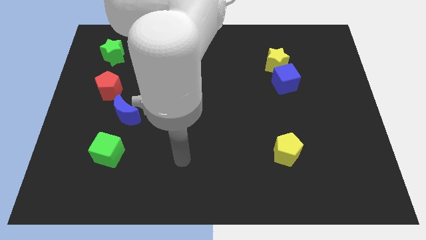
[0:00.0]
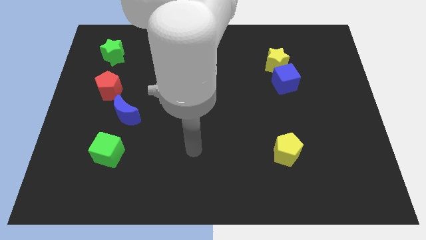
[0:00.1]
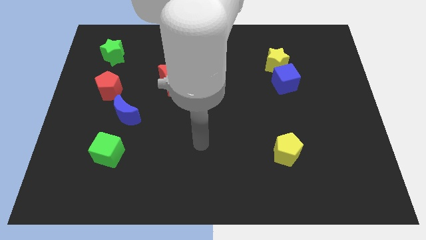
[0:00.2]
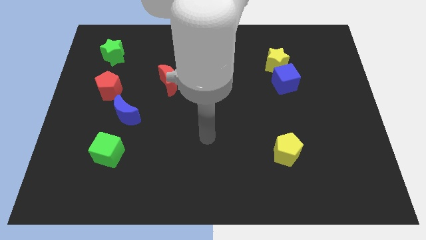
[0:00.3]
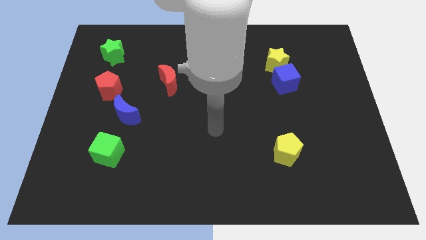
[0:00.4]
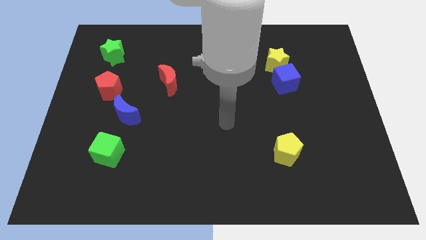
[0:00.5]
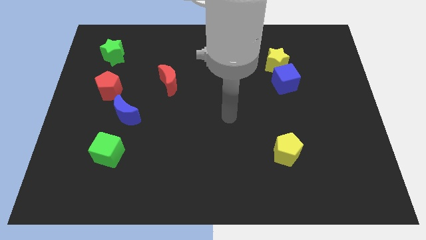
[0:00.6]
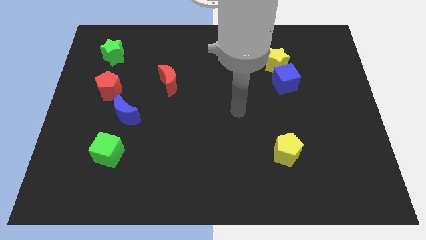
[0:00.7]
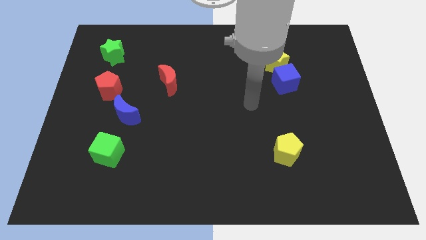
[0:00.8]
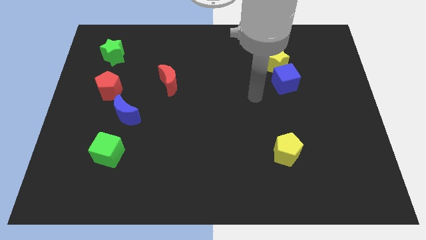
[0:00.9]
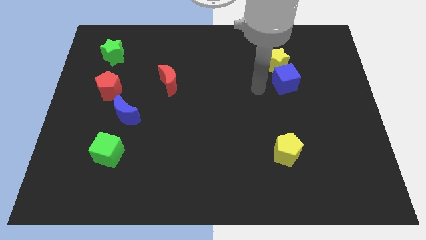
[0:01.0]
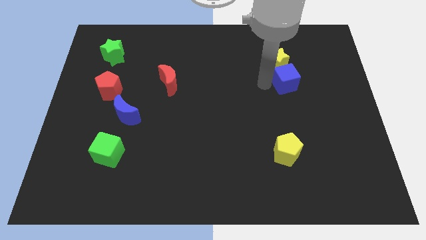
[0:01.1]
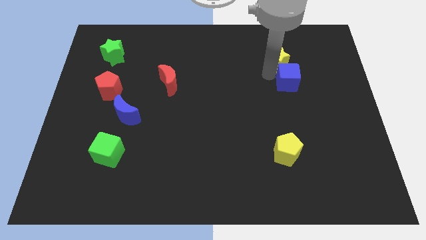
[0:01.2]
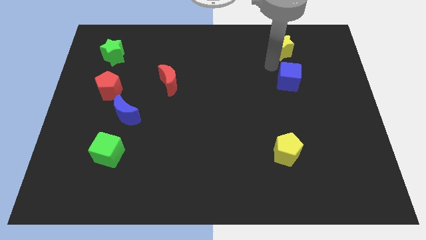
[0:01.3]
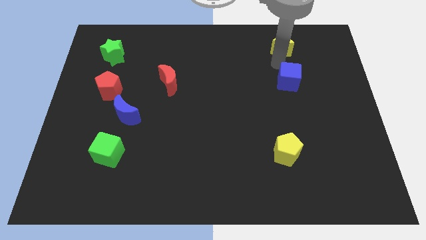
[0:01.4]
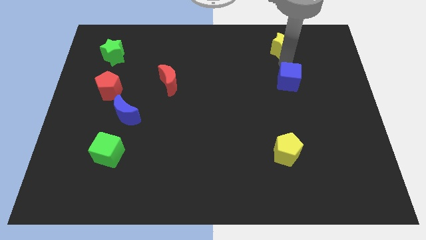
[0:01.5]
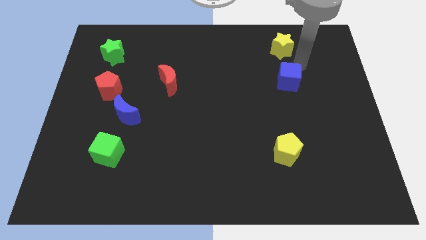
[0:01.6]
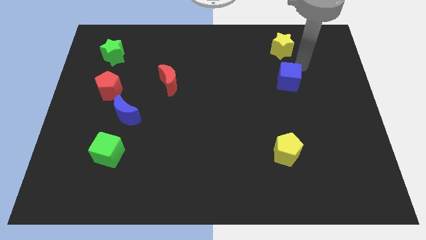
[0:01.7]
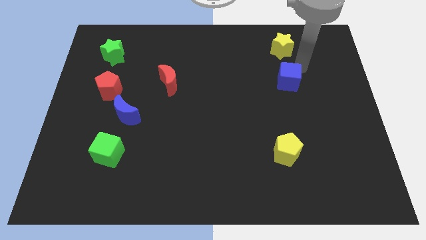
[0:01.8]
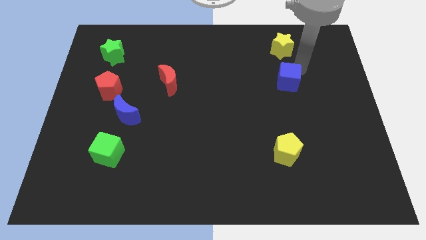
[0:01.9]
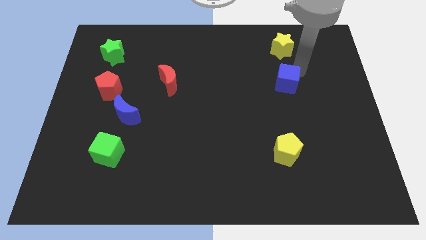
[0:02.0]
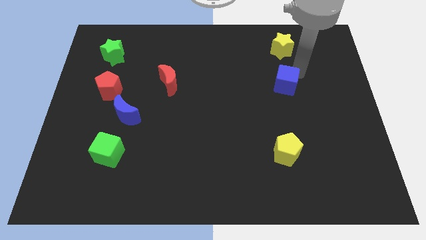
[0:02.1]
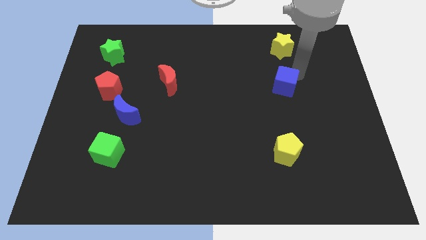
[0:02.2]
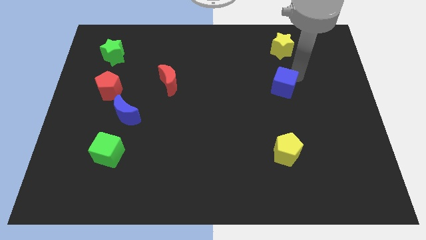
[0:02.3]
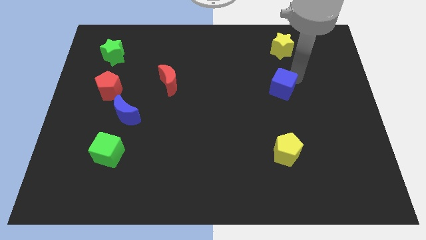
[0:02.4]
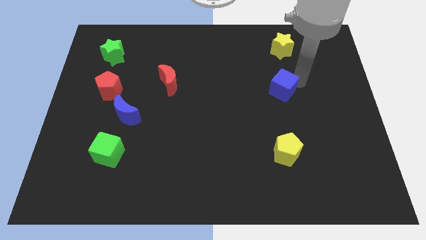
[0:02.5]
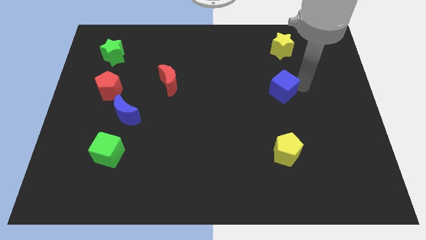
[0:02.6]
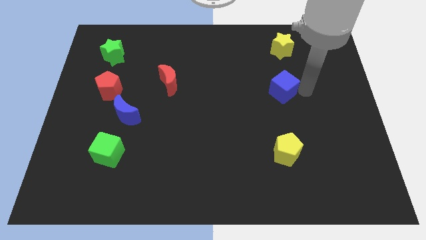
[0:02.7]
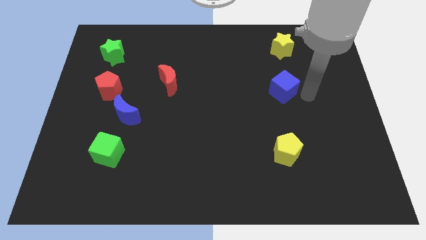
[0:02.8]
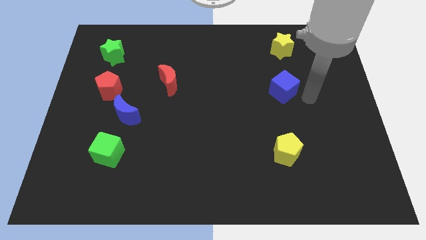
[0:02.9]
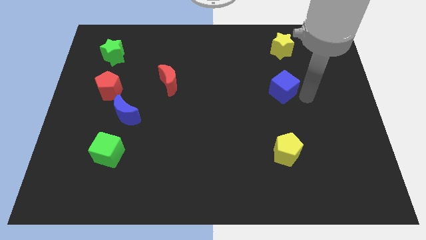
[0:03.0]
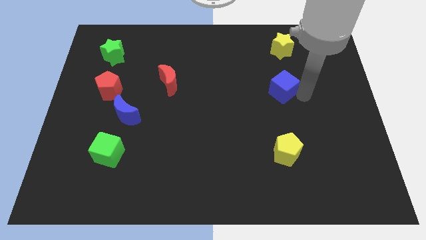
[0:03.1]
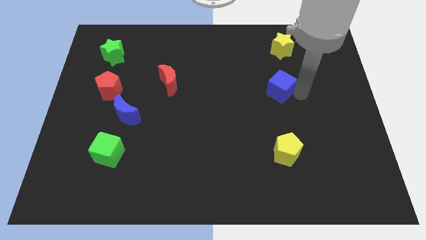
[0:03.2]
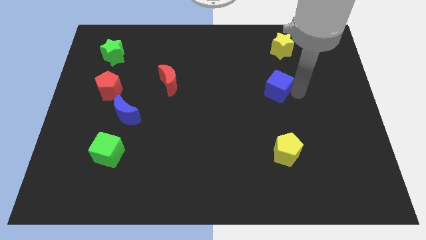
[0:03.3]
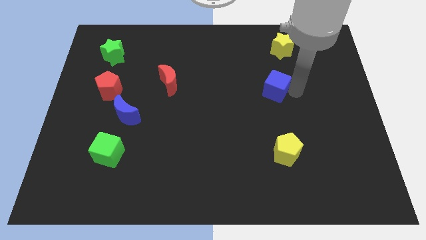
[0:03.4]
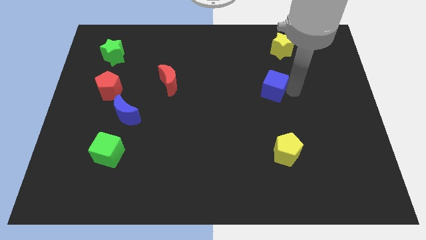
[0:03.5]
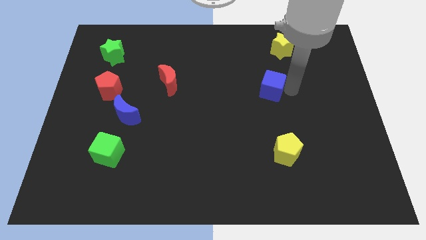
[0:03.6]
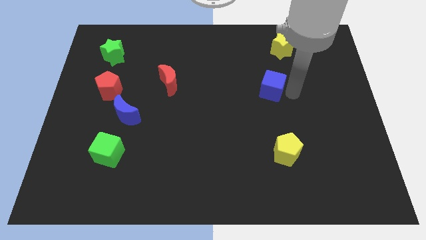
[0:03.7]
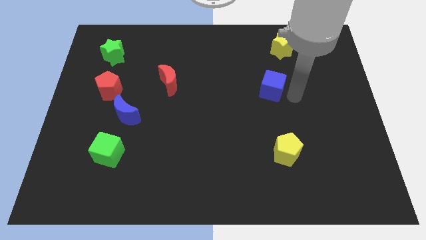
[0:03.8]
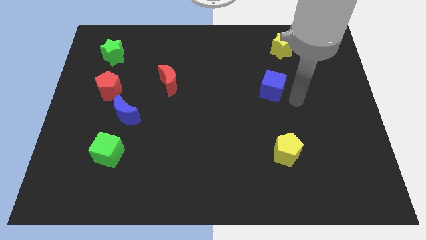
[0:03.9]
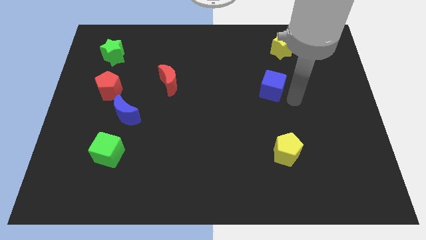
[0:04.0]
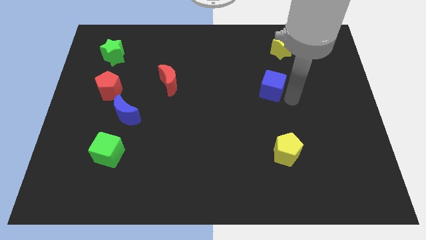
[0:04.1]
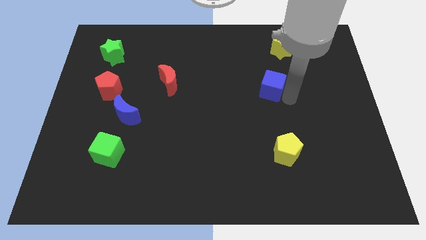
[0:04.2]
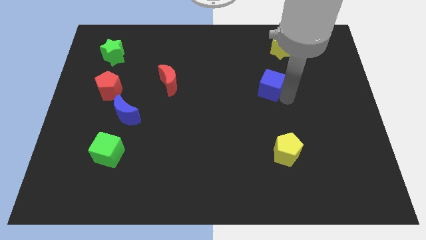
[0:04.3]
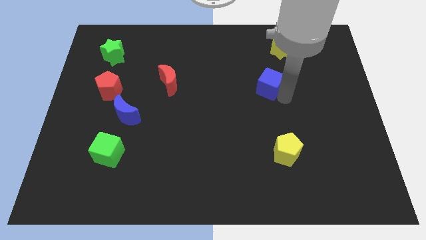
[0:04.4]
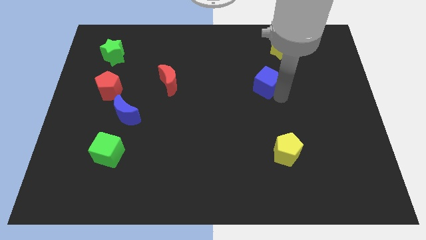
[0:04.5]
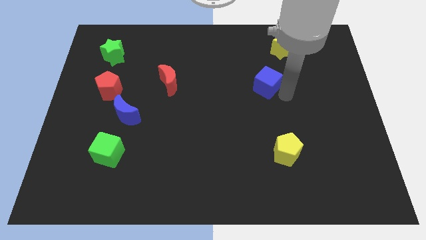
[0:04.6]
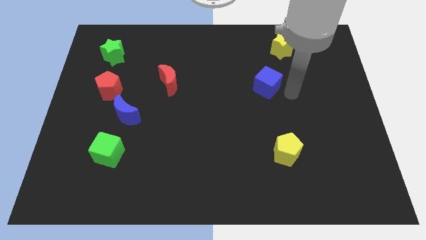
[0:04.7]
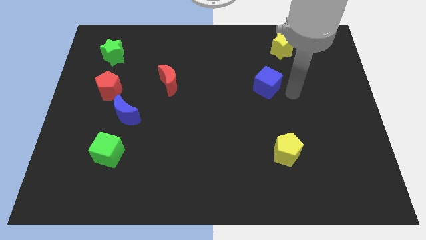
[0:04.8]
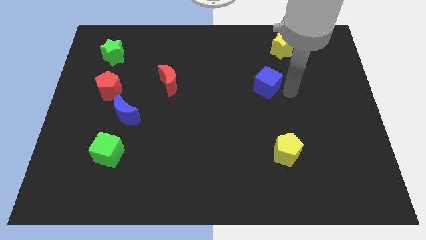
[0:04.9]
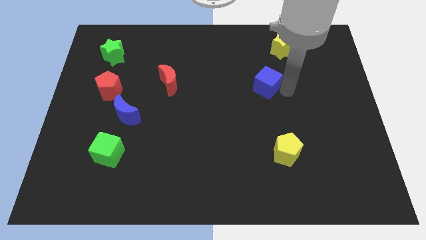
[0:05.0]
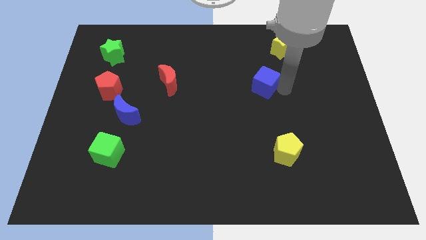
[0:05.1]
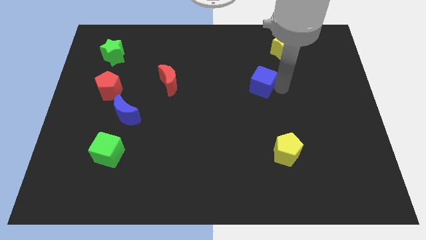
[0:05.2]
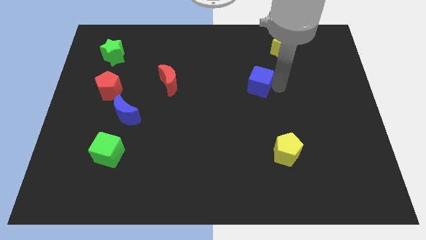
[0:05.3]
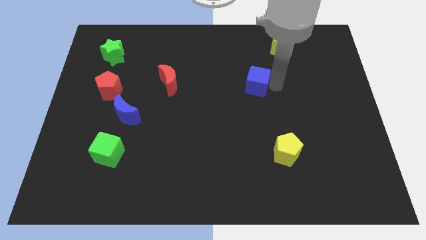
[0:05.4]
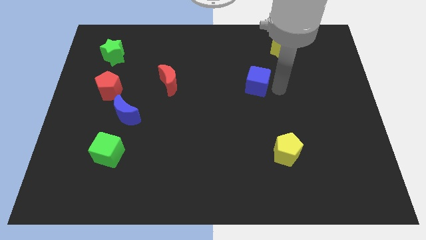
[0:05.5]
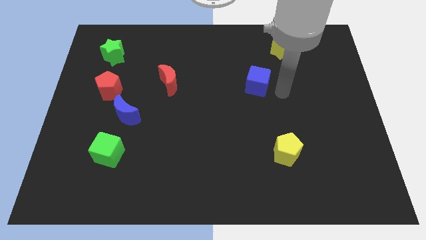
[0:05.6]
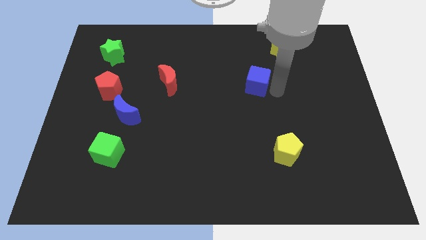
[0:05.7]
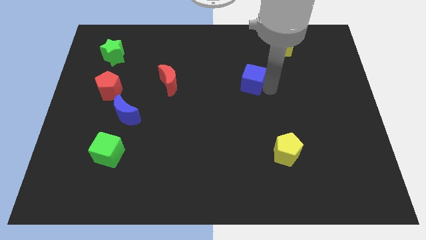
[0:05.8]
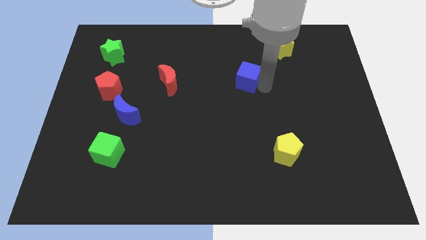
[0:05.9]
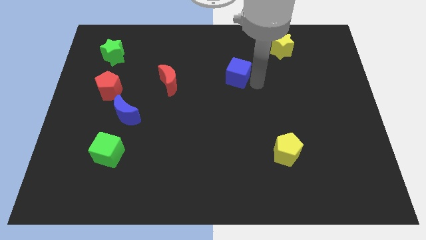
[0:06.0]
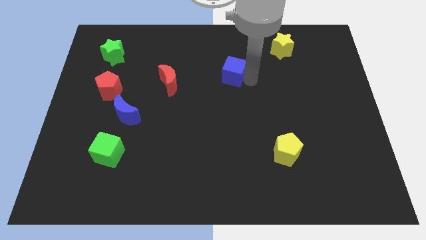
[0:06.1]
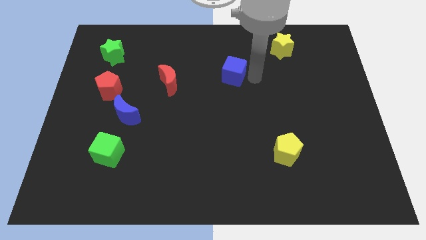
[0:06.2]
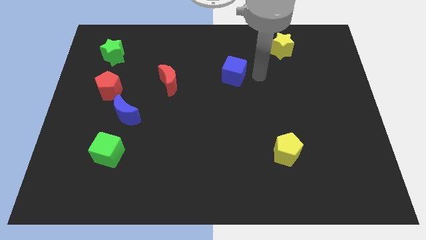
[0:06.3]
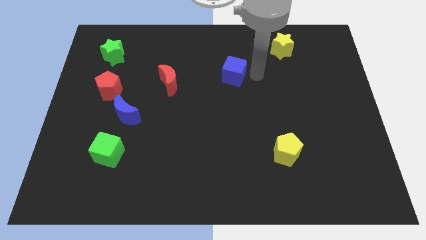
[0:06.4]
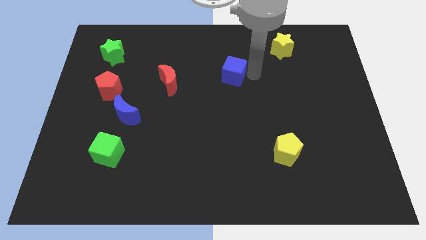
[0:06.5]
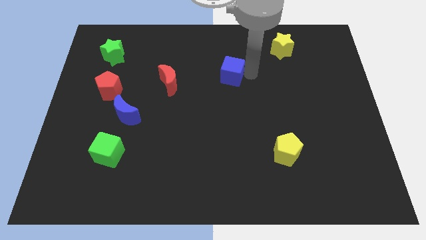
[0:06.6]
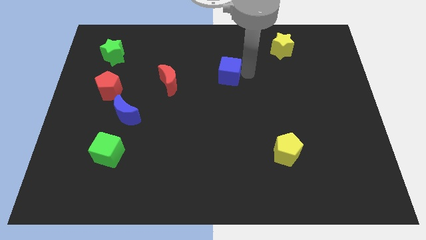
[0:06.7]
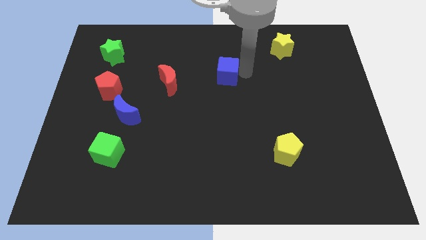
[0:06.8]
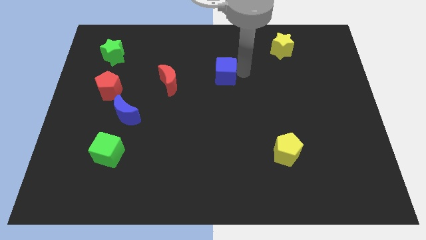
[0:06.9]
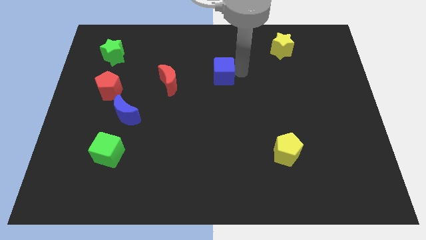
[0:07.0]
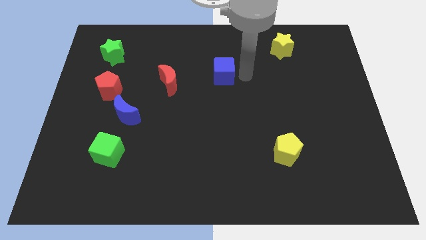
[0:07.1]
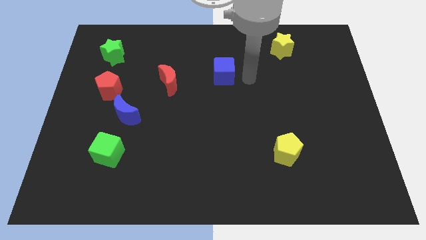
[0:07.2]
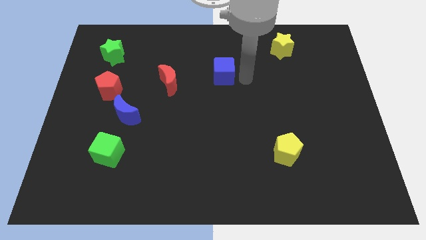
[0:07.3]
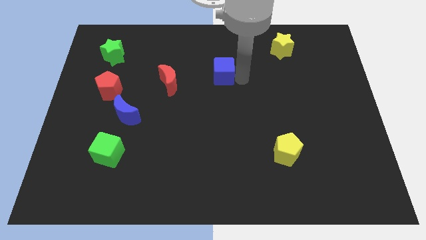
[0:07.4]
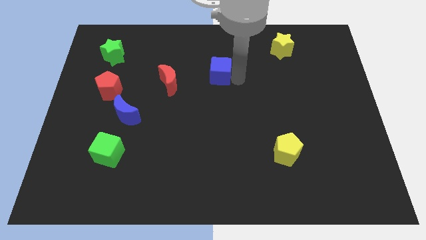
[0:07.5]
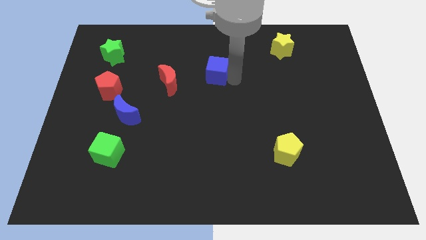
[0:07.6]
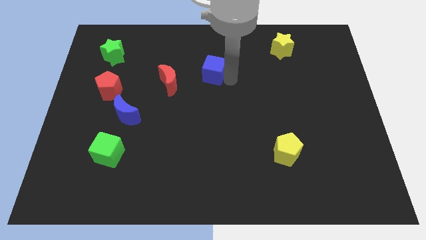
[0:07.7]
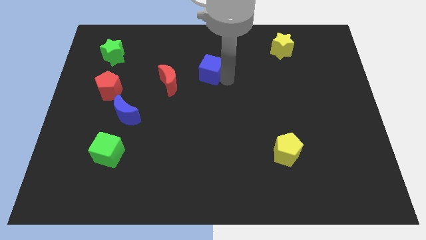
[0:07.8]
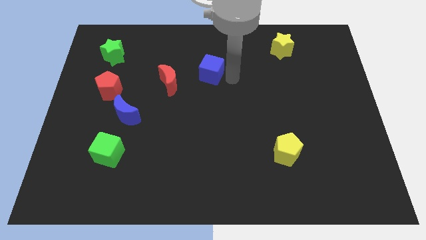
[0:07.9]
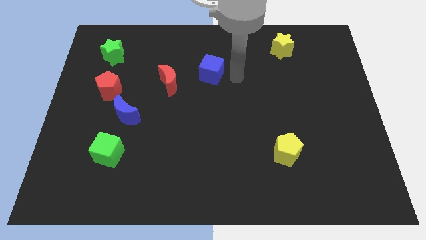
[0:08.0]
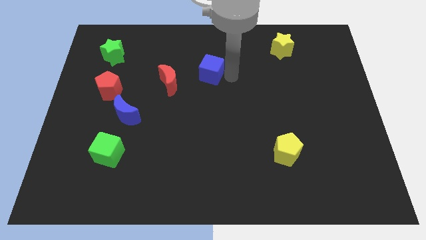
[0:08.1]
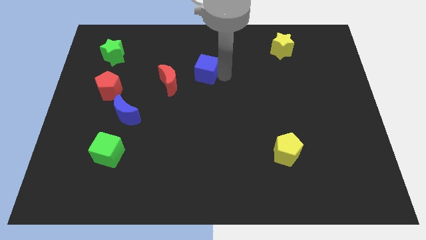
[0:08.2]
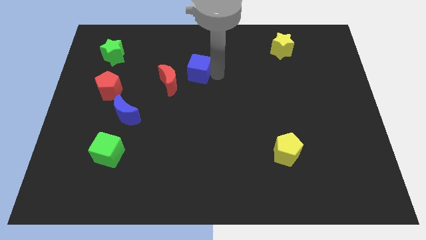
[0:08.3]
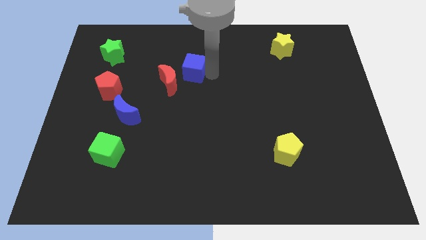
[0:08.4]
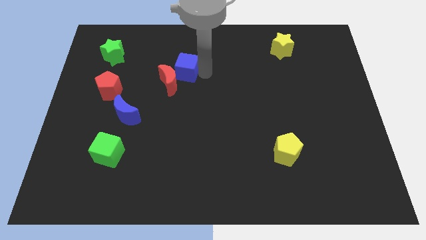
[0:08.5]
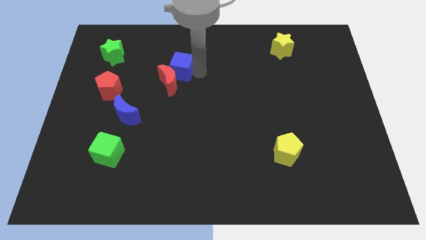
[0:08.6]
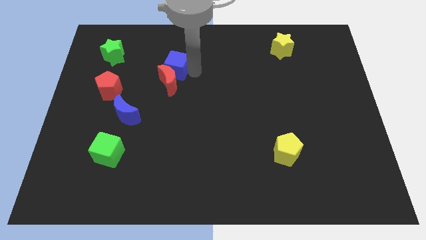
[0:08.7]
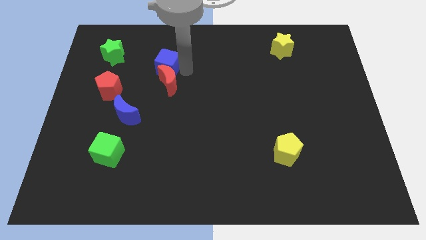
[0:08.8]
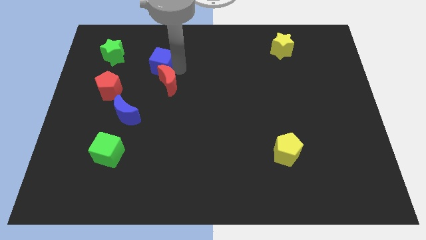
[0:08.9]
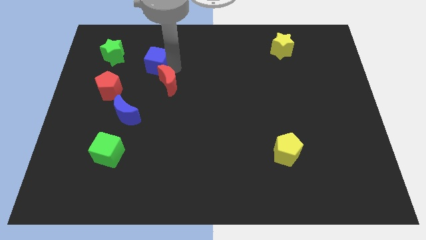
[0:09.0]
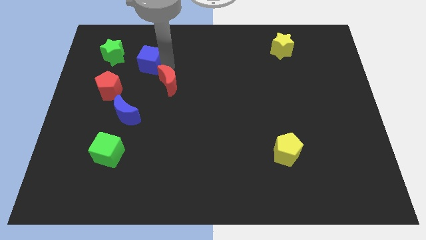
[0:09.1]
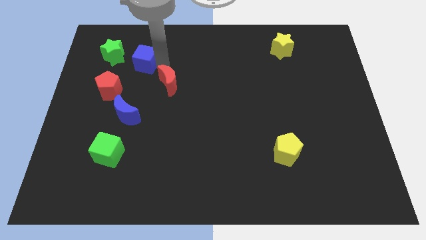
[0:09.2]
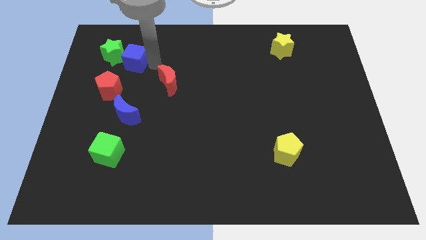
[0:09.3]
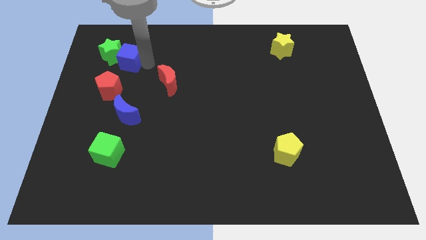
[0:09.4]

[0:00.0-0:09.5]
push the blue cube towards the green star
